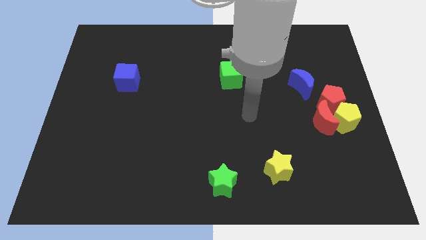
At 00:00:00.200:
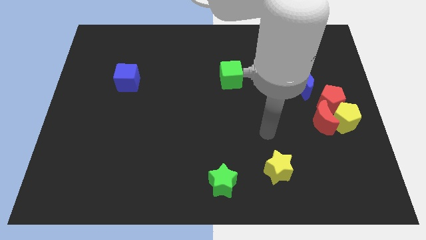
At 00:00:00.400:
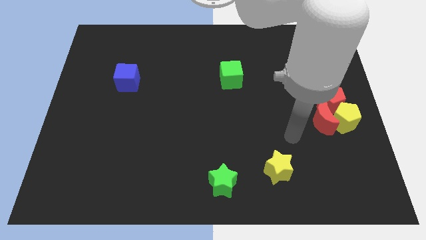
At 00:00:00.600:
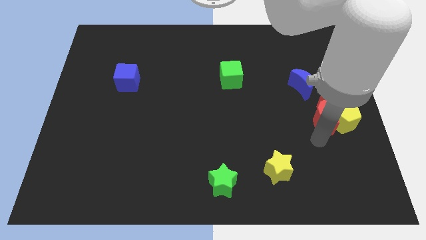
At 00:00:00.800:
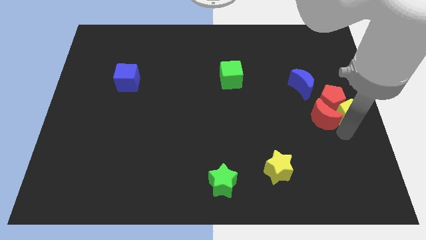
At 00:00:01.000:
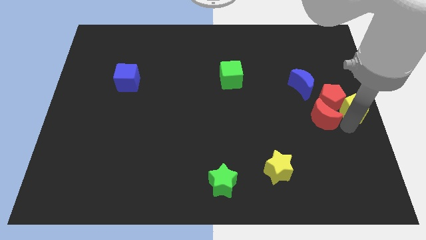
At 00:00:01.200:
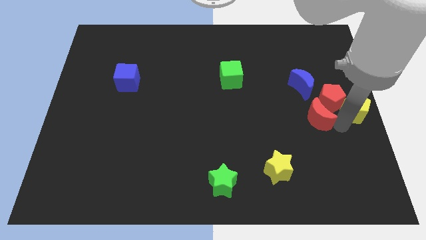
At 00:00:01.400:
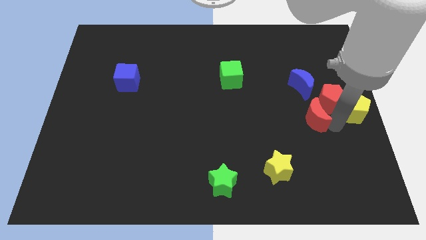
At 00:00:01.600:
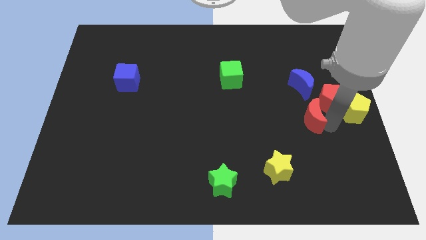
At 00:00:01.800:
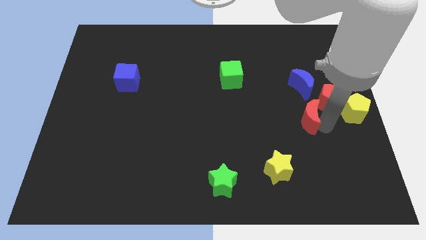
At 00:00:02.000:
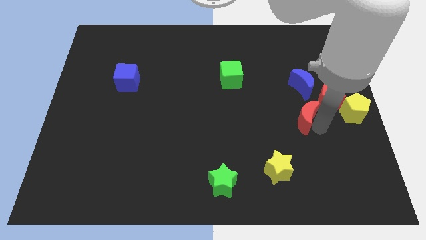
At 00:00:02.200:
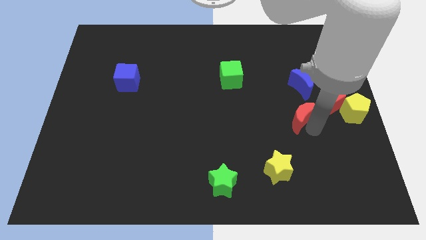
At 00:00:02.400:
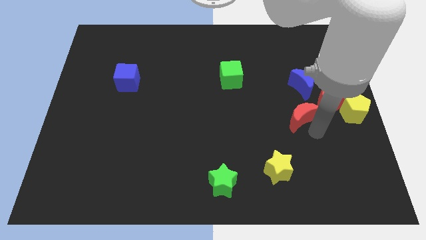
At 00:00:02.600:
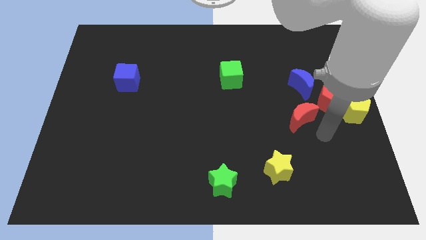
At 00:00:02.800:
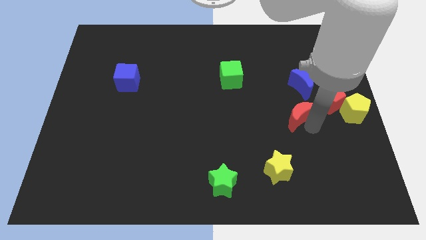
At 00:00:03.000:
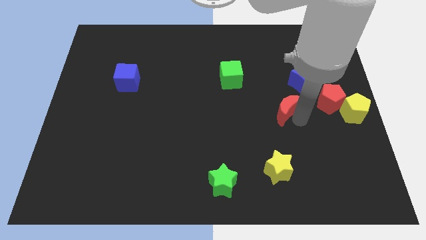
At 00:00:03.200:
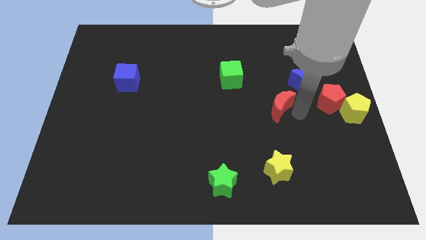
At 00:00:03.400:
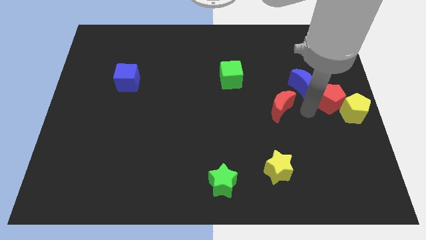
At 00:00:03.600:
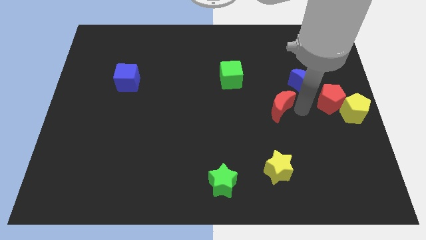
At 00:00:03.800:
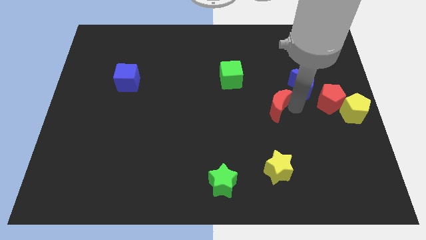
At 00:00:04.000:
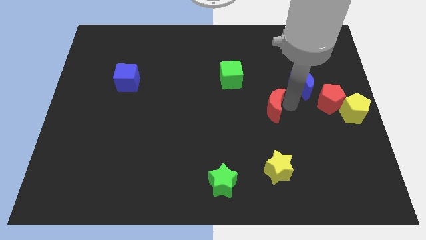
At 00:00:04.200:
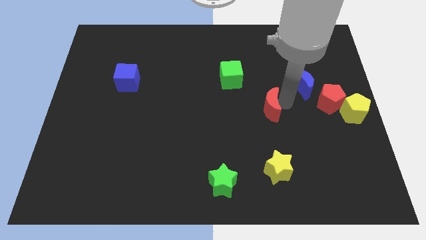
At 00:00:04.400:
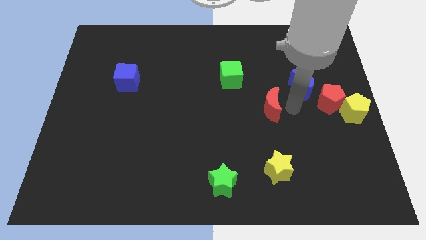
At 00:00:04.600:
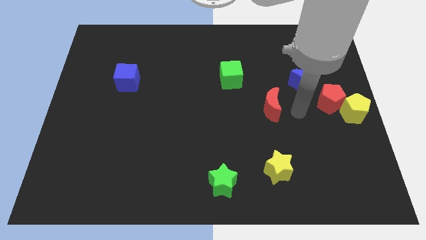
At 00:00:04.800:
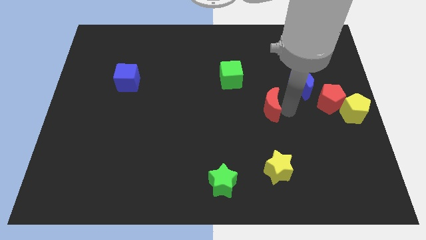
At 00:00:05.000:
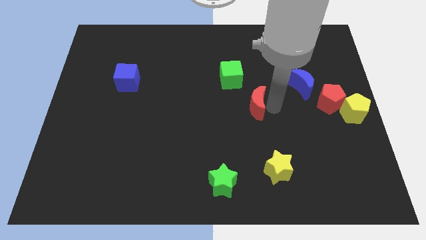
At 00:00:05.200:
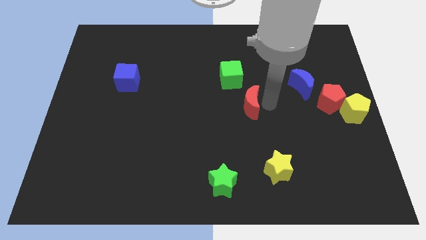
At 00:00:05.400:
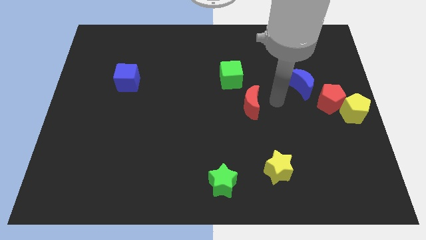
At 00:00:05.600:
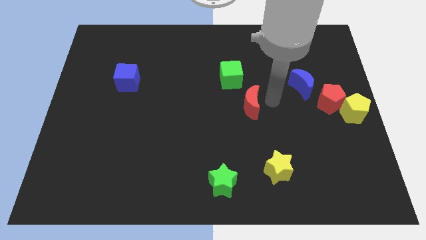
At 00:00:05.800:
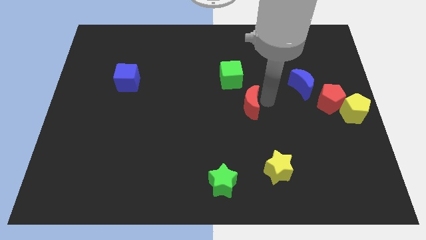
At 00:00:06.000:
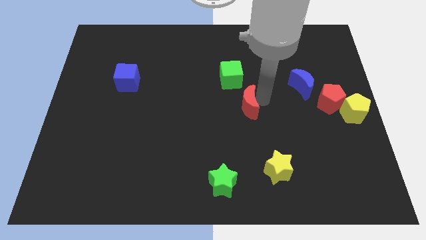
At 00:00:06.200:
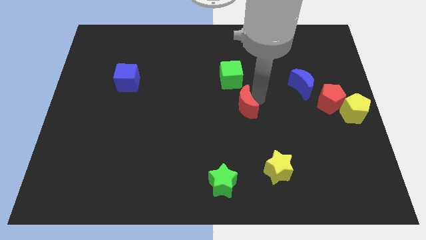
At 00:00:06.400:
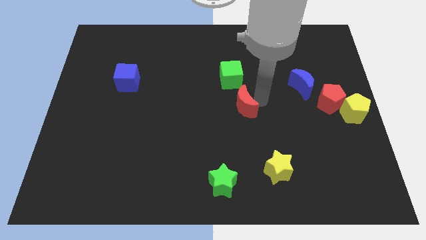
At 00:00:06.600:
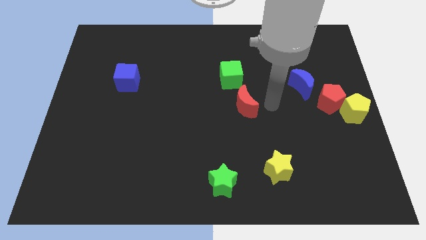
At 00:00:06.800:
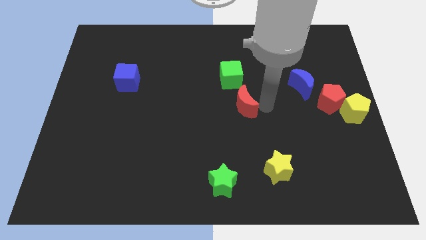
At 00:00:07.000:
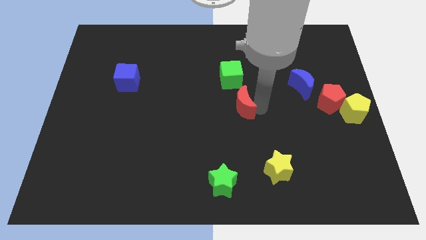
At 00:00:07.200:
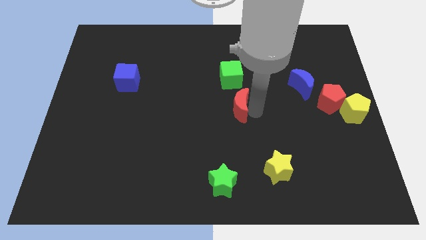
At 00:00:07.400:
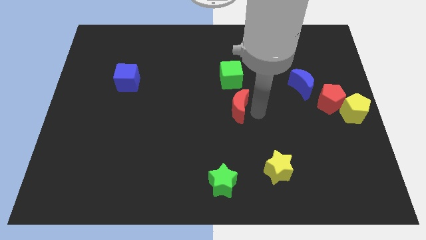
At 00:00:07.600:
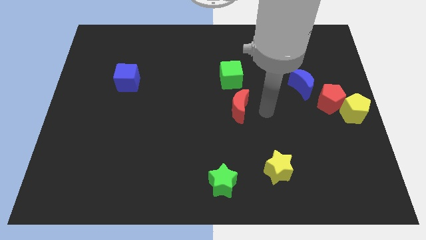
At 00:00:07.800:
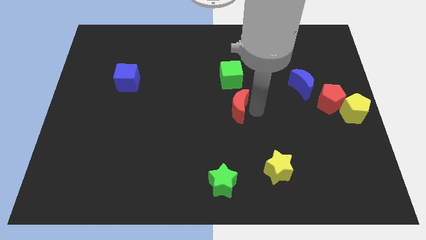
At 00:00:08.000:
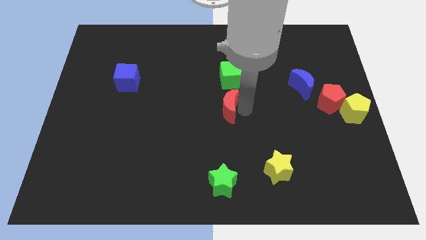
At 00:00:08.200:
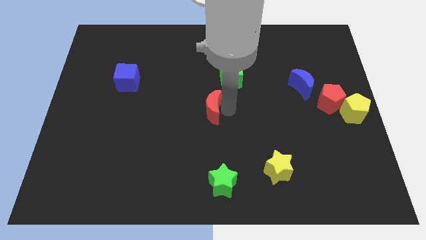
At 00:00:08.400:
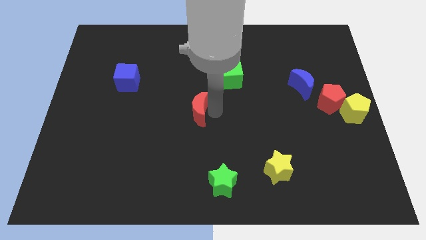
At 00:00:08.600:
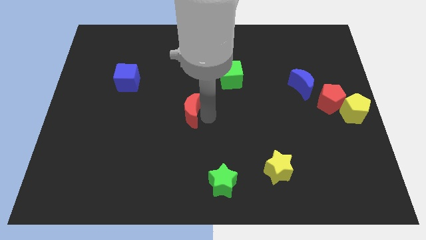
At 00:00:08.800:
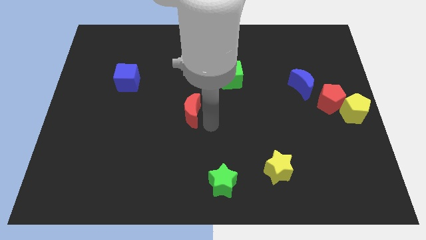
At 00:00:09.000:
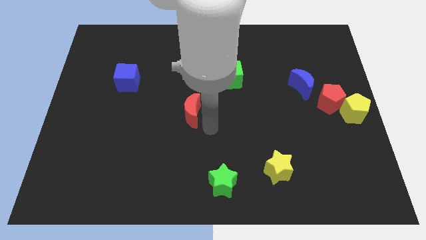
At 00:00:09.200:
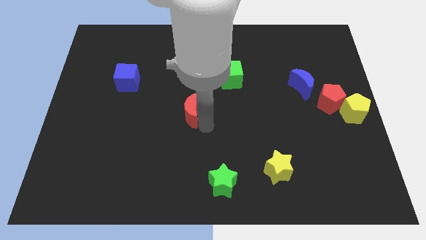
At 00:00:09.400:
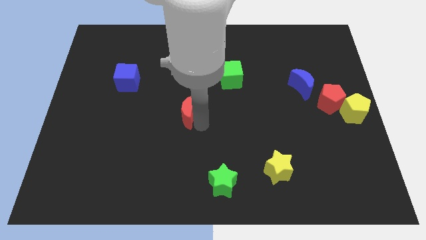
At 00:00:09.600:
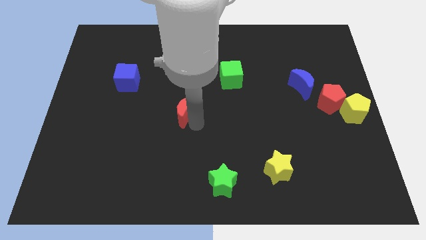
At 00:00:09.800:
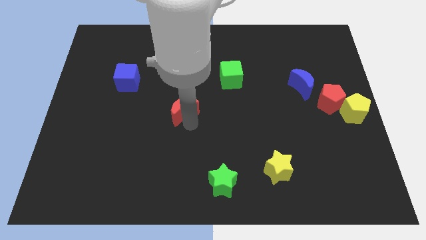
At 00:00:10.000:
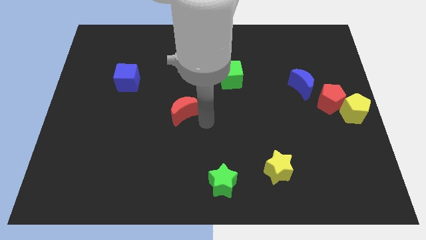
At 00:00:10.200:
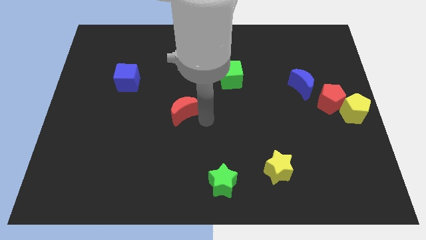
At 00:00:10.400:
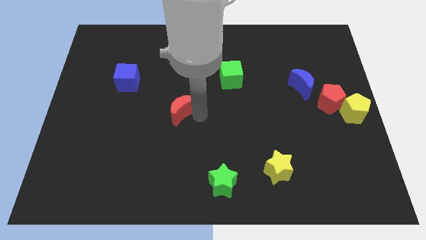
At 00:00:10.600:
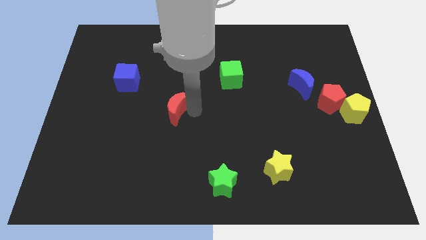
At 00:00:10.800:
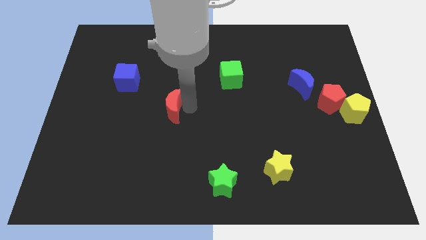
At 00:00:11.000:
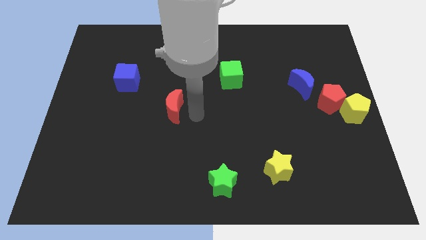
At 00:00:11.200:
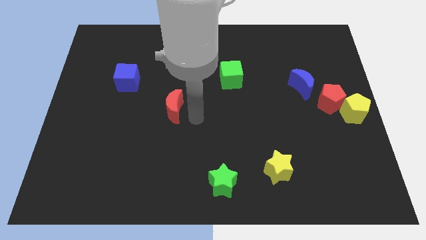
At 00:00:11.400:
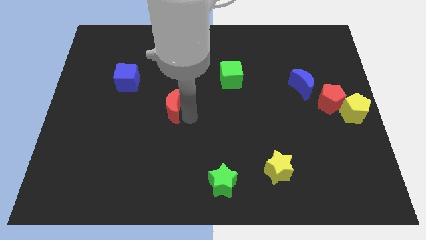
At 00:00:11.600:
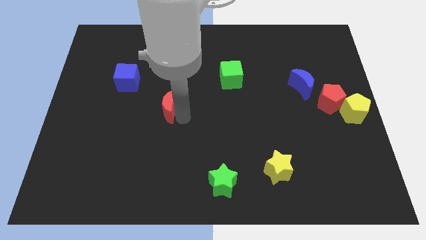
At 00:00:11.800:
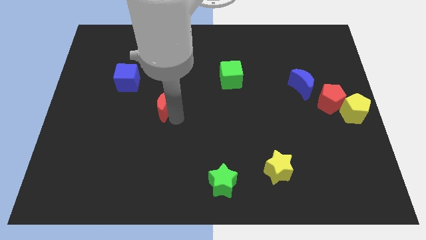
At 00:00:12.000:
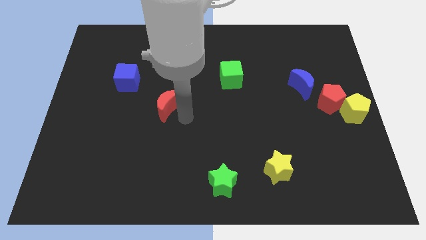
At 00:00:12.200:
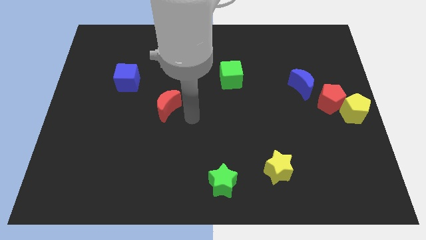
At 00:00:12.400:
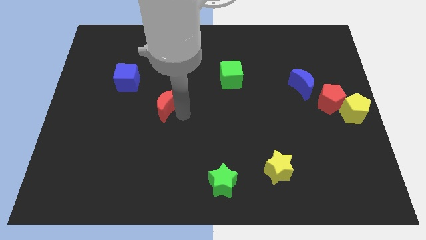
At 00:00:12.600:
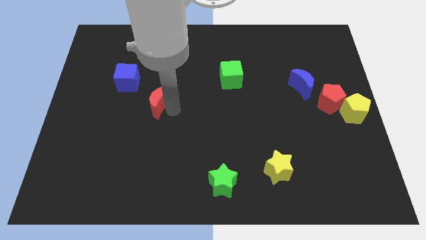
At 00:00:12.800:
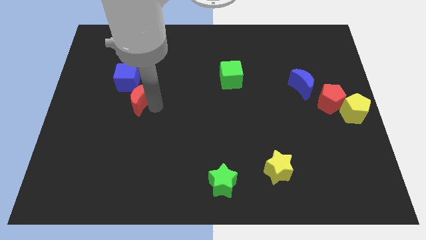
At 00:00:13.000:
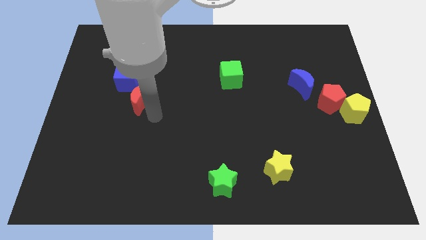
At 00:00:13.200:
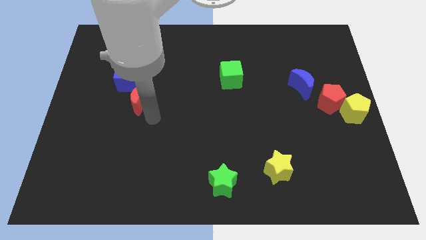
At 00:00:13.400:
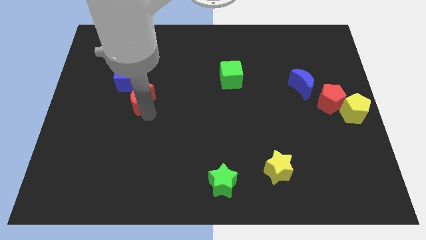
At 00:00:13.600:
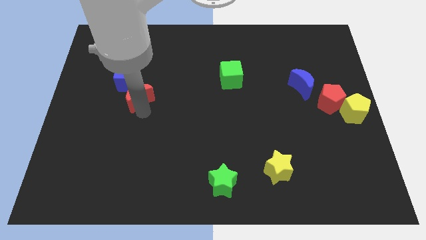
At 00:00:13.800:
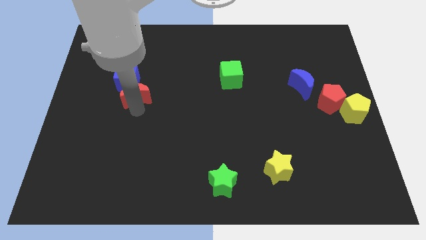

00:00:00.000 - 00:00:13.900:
move the red moon close to the blue cube

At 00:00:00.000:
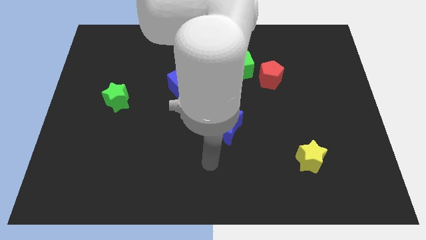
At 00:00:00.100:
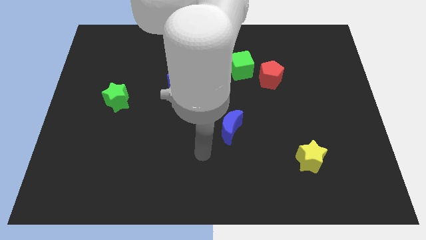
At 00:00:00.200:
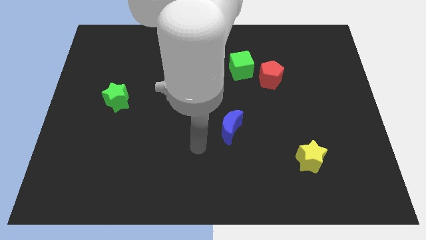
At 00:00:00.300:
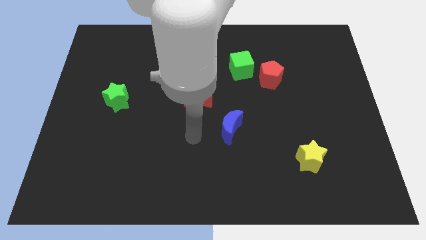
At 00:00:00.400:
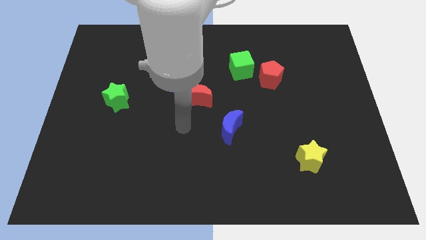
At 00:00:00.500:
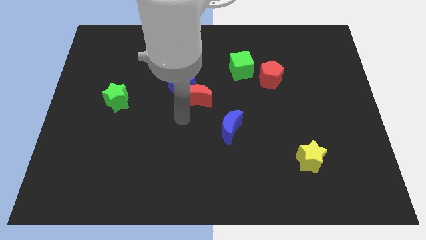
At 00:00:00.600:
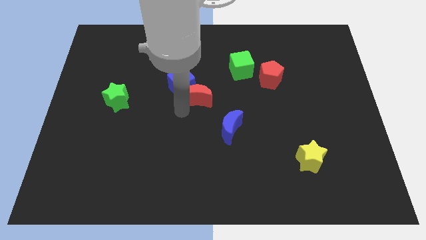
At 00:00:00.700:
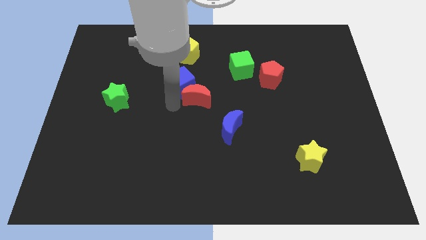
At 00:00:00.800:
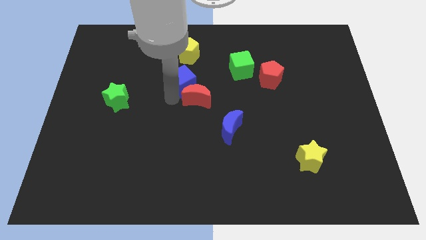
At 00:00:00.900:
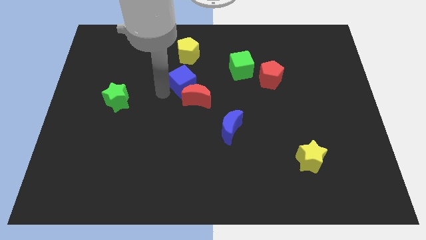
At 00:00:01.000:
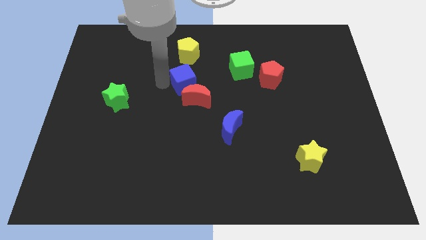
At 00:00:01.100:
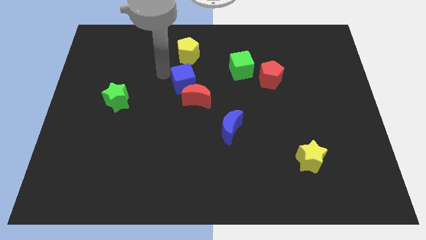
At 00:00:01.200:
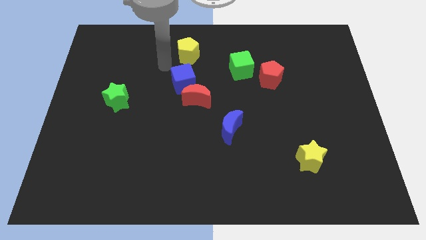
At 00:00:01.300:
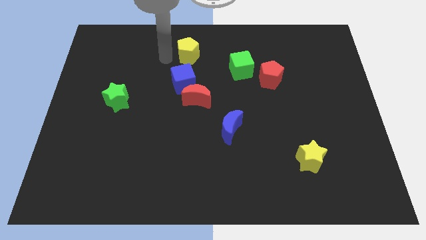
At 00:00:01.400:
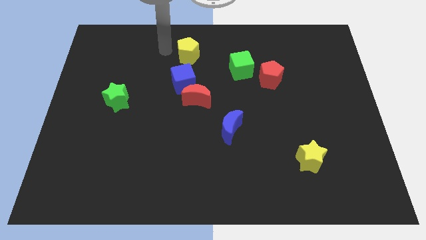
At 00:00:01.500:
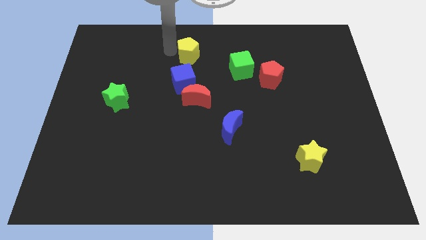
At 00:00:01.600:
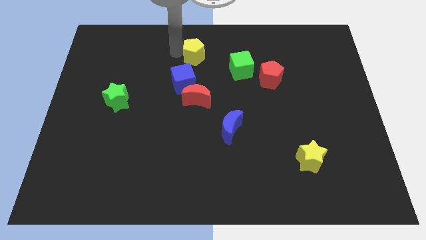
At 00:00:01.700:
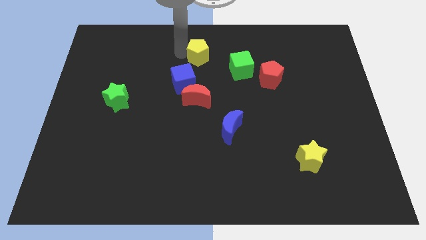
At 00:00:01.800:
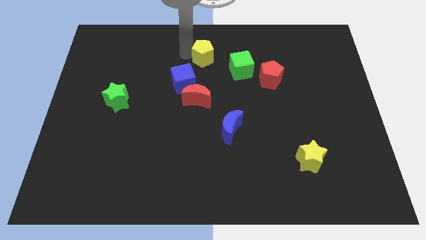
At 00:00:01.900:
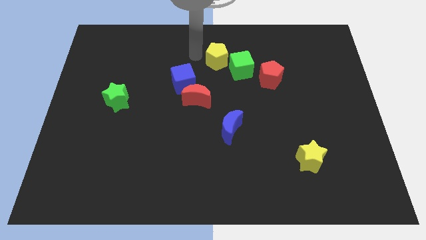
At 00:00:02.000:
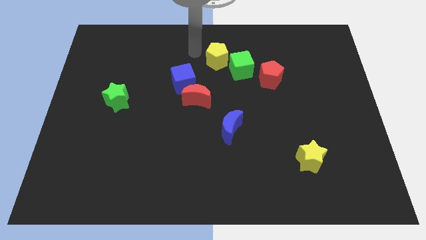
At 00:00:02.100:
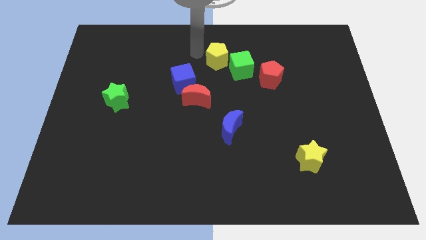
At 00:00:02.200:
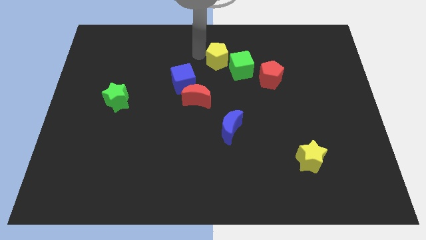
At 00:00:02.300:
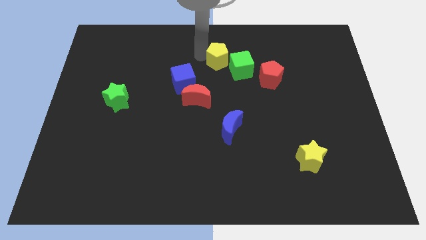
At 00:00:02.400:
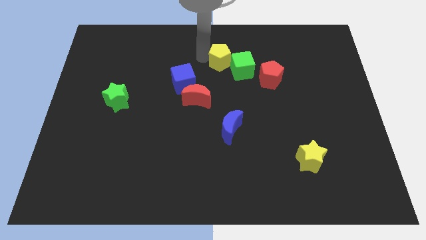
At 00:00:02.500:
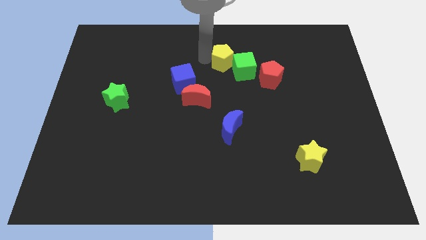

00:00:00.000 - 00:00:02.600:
put the yellow pentagon towards the green cube
